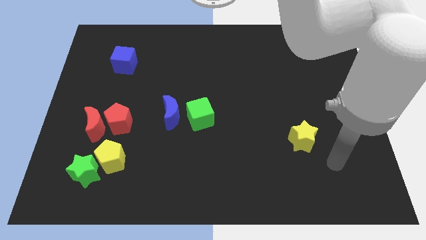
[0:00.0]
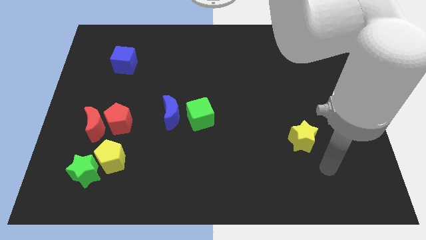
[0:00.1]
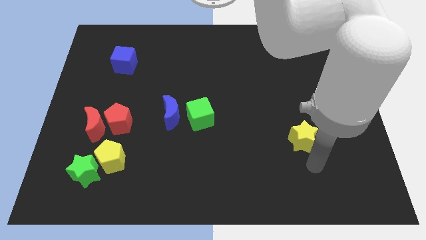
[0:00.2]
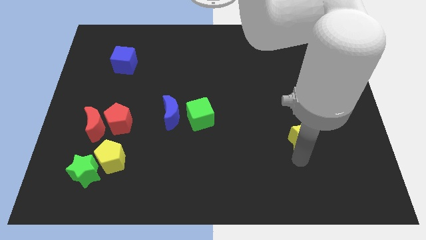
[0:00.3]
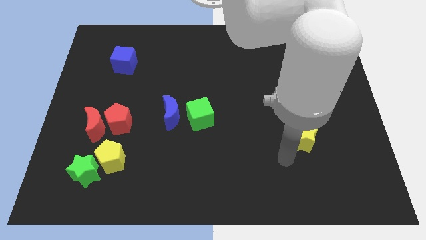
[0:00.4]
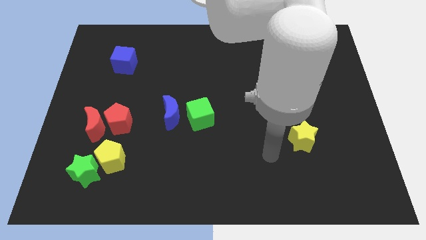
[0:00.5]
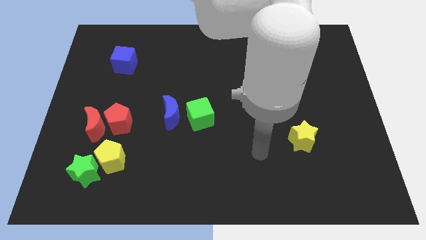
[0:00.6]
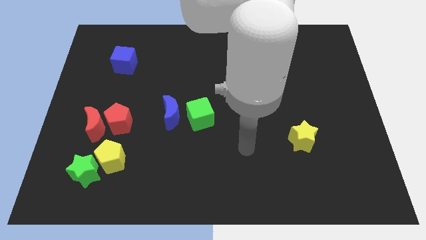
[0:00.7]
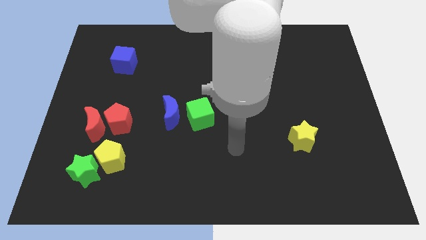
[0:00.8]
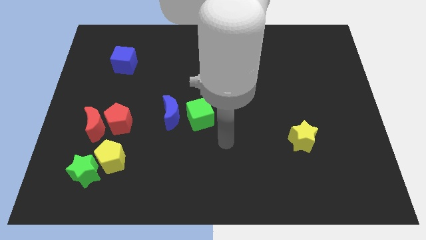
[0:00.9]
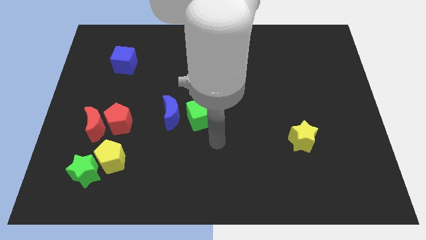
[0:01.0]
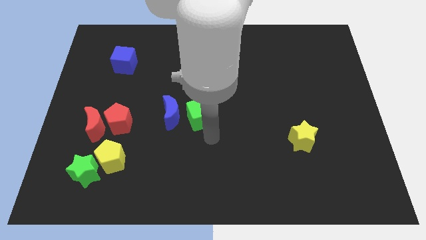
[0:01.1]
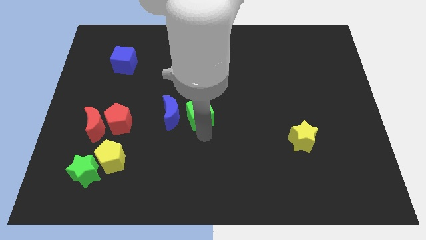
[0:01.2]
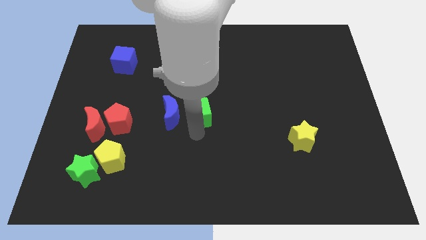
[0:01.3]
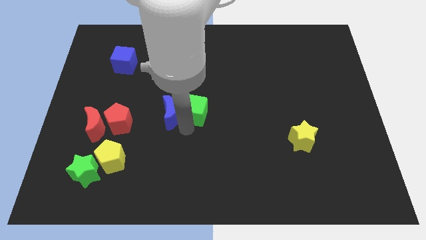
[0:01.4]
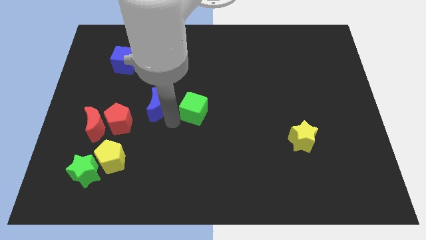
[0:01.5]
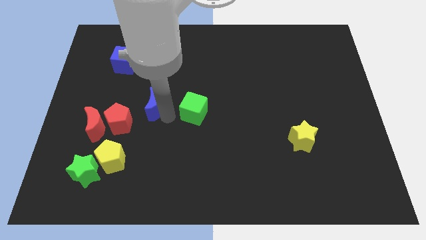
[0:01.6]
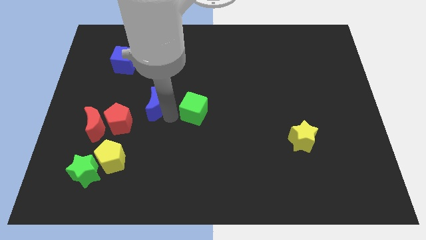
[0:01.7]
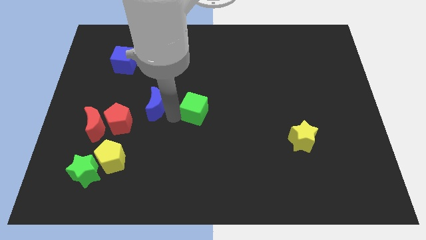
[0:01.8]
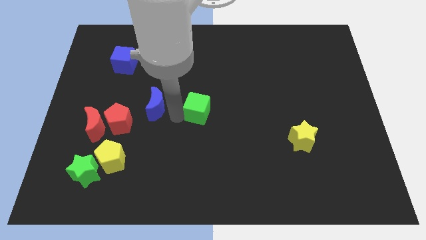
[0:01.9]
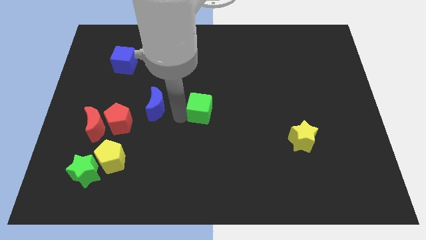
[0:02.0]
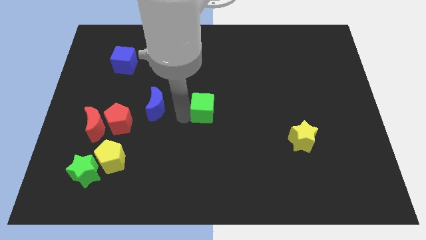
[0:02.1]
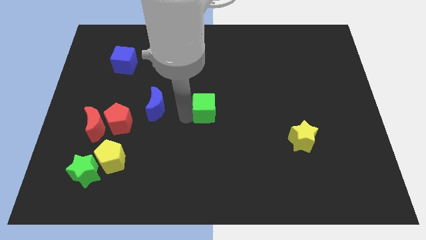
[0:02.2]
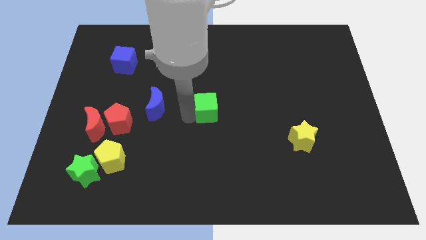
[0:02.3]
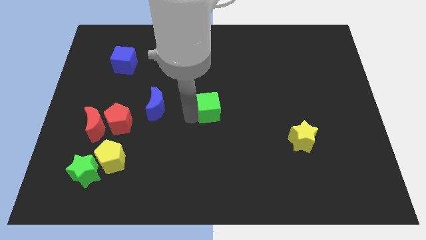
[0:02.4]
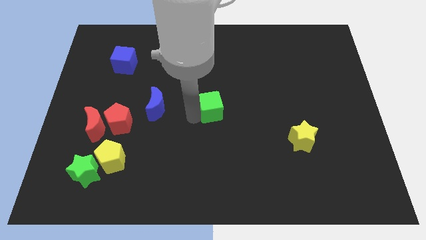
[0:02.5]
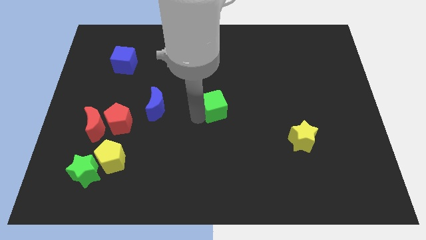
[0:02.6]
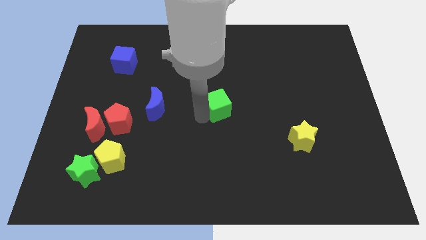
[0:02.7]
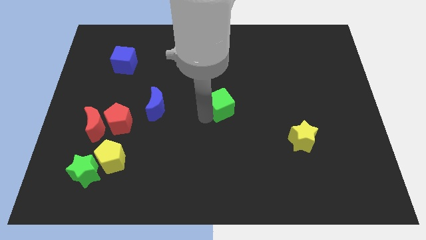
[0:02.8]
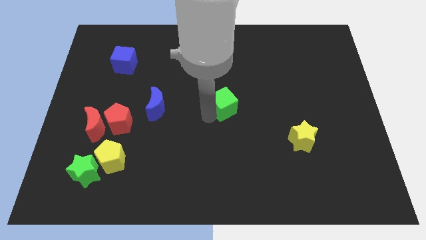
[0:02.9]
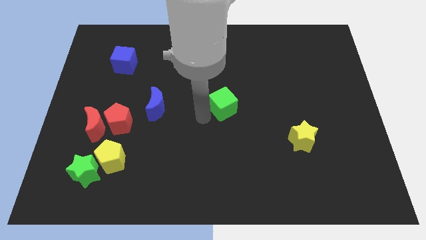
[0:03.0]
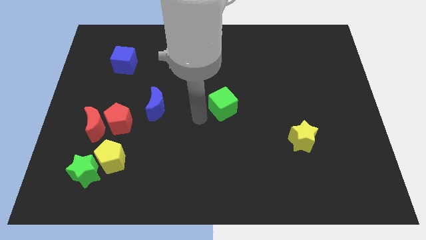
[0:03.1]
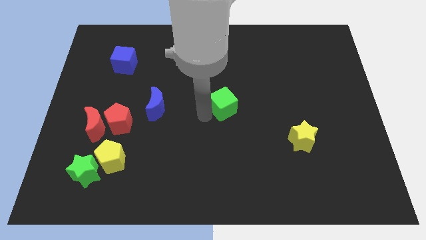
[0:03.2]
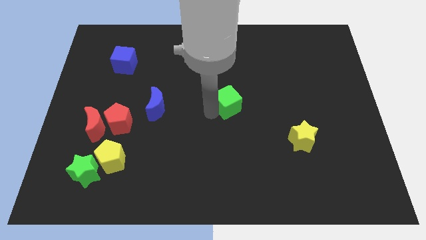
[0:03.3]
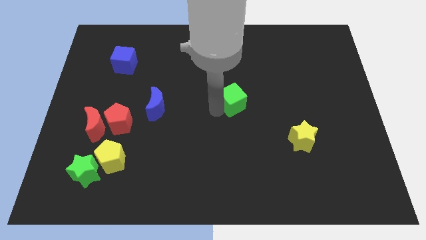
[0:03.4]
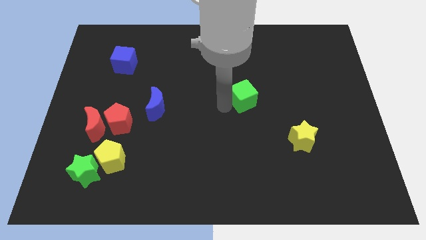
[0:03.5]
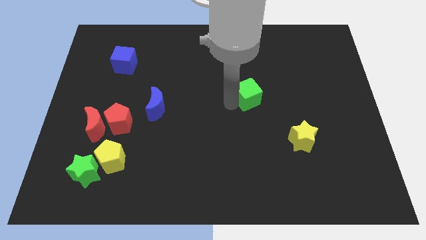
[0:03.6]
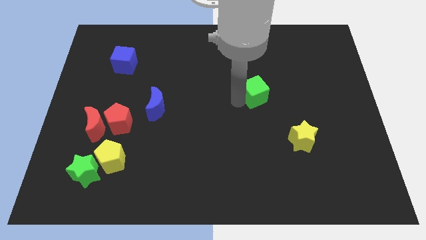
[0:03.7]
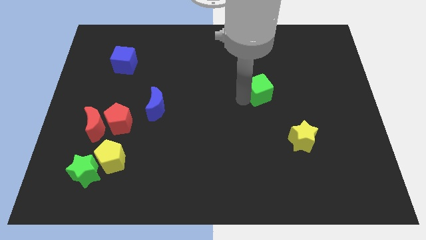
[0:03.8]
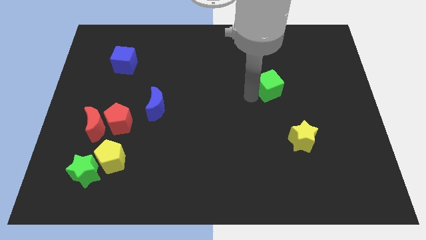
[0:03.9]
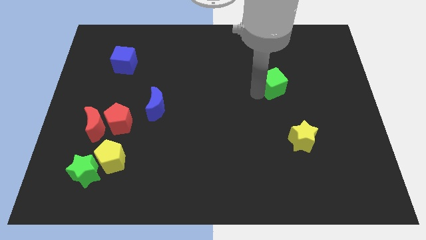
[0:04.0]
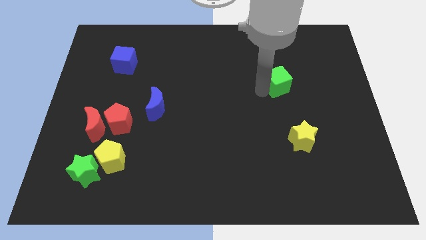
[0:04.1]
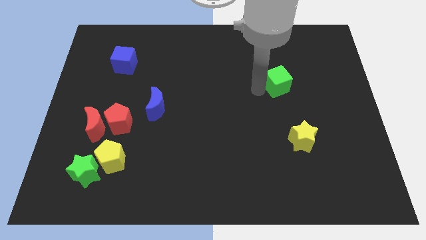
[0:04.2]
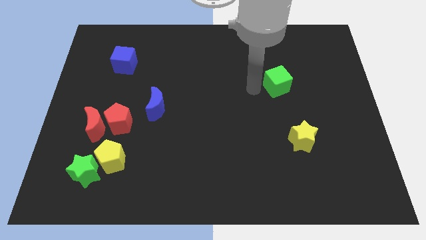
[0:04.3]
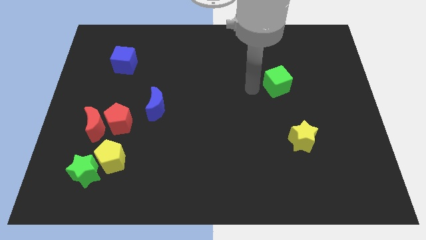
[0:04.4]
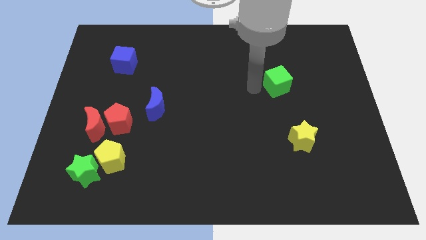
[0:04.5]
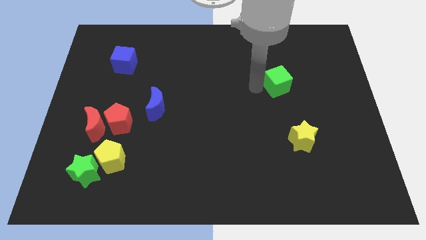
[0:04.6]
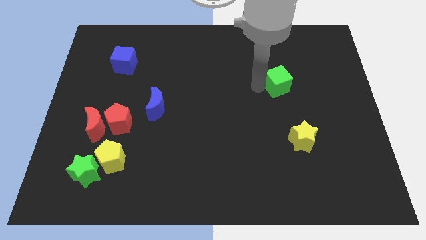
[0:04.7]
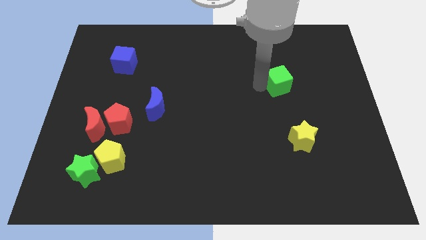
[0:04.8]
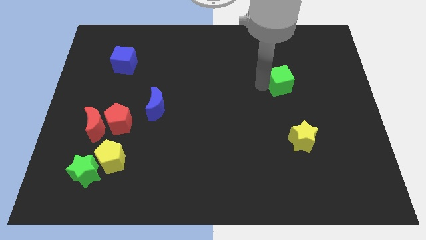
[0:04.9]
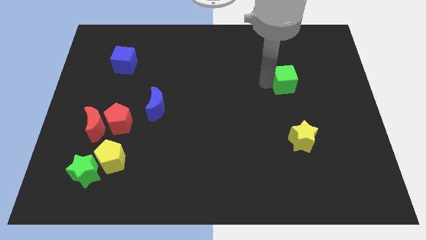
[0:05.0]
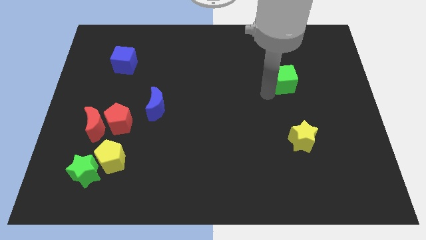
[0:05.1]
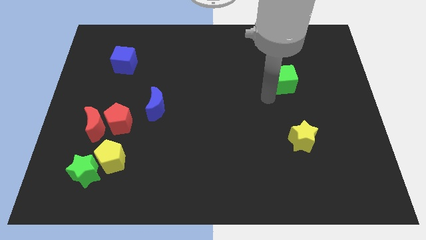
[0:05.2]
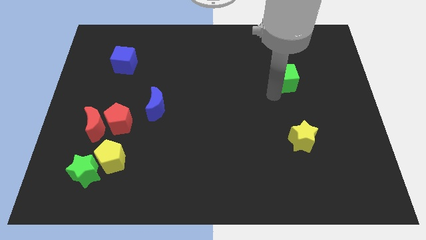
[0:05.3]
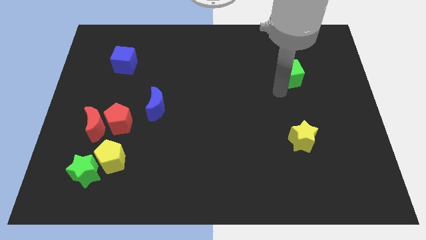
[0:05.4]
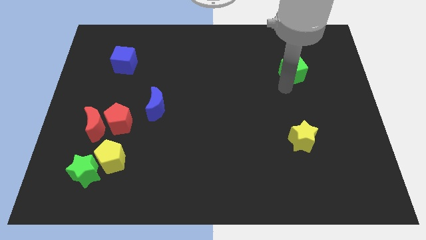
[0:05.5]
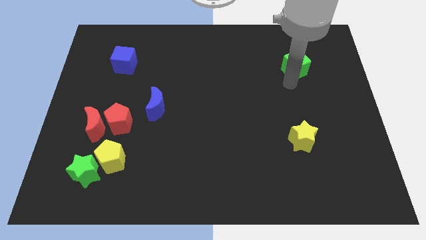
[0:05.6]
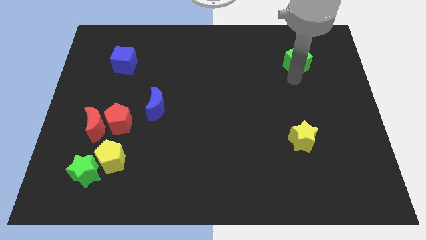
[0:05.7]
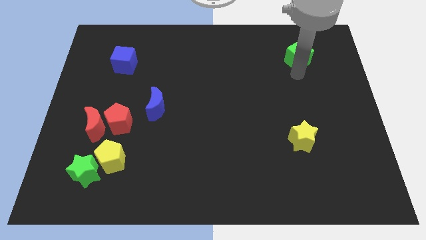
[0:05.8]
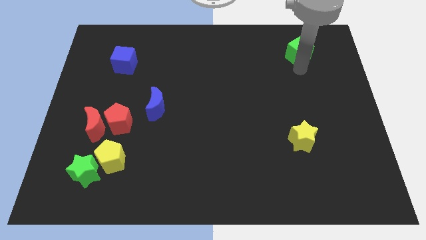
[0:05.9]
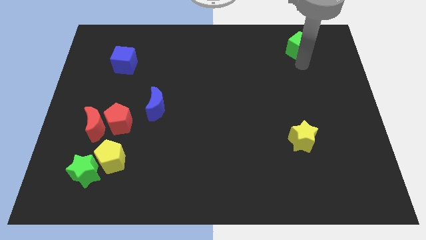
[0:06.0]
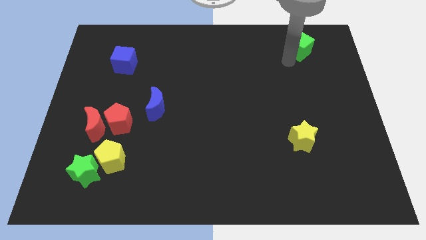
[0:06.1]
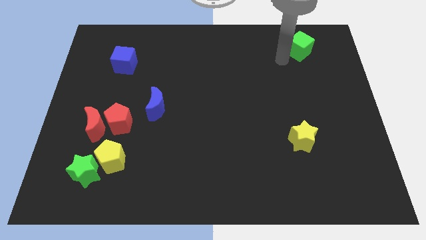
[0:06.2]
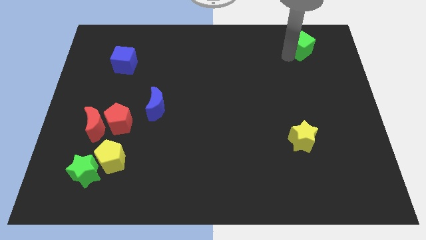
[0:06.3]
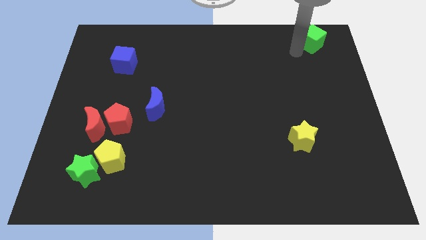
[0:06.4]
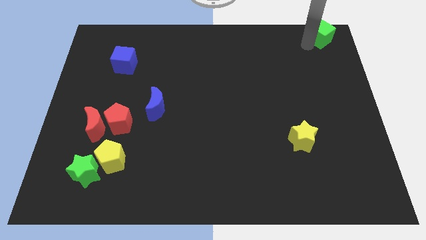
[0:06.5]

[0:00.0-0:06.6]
push the green cube to the top right of the board
